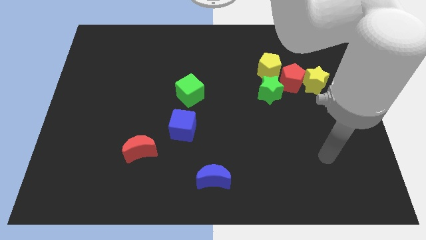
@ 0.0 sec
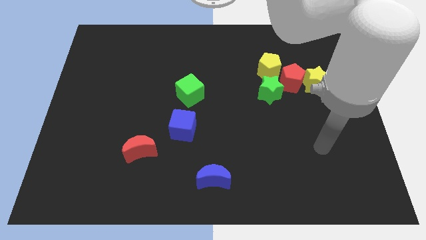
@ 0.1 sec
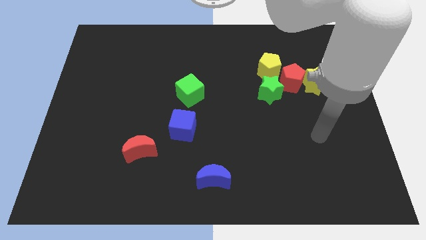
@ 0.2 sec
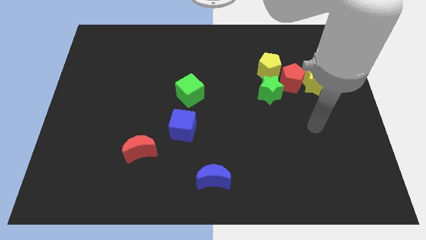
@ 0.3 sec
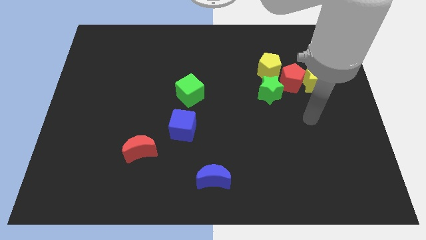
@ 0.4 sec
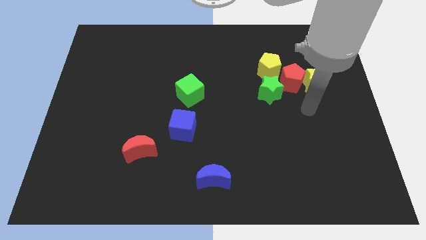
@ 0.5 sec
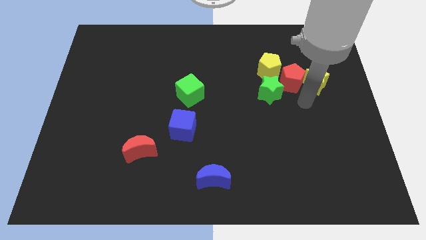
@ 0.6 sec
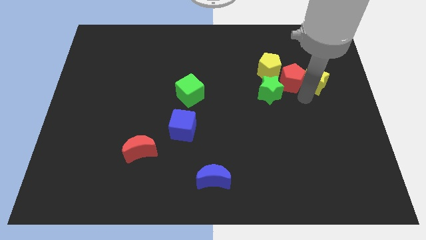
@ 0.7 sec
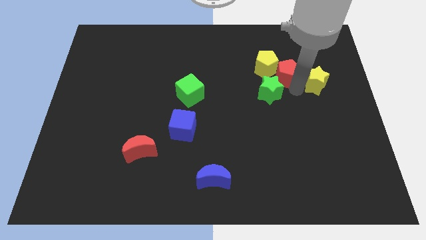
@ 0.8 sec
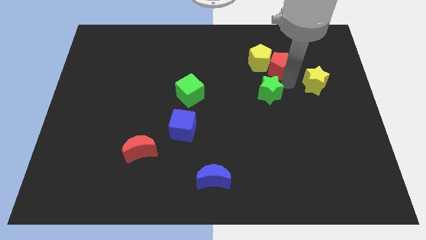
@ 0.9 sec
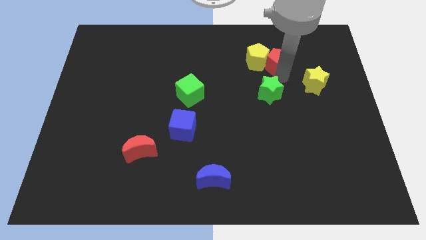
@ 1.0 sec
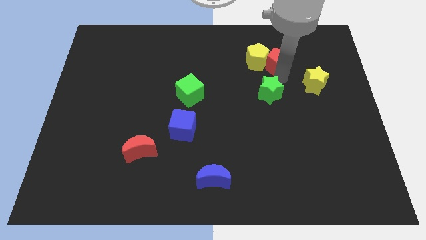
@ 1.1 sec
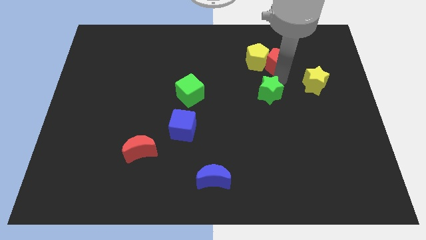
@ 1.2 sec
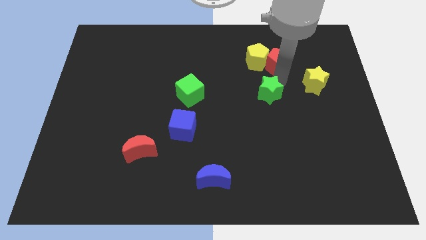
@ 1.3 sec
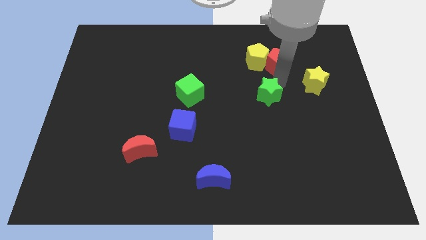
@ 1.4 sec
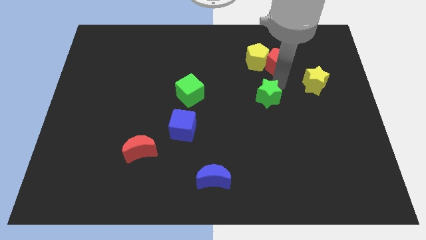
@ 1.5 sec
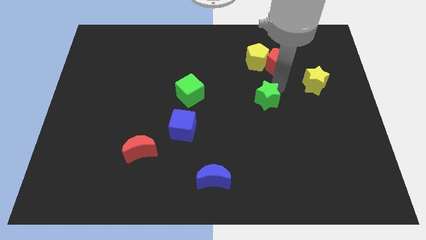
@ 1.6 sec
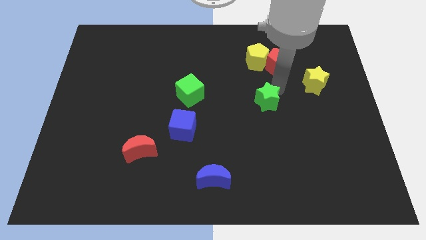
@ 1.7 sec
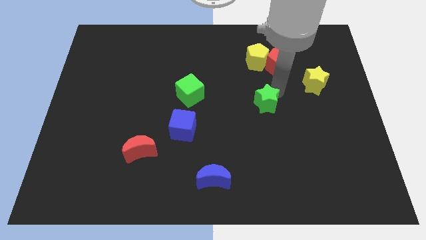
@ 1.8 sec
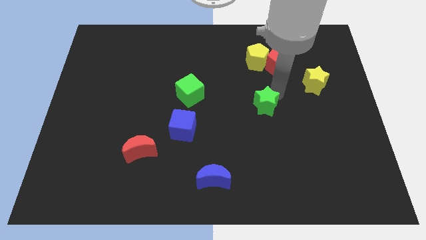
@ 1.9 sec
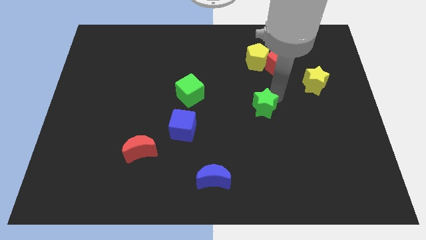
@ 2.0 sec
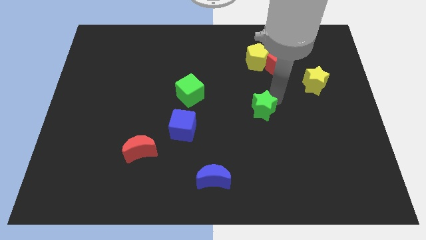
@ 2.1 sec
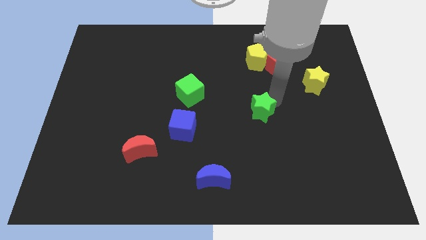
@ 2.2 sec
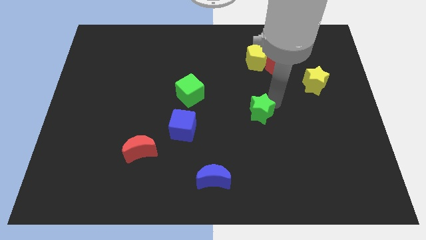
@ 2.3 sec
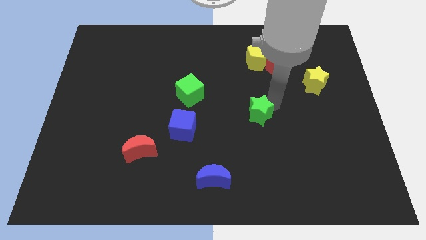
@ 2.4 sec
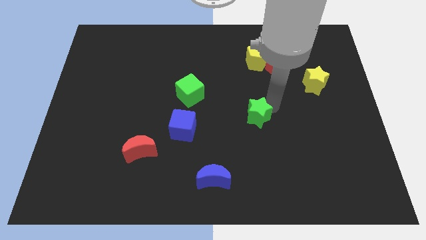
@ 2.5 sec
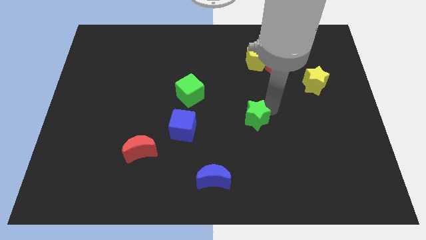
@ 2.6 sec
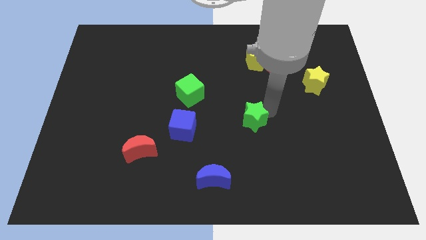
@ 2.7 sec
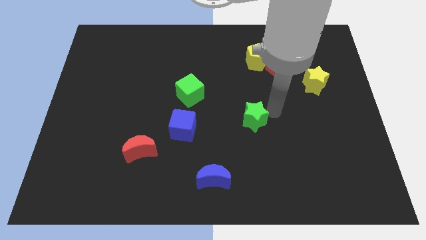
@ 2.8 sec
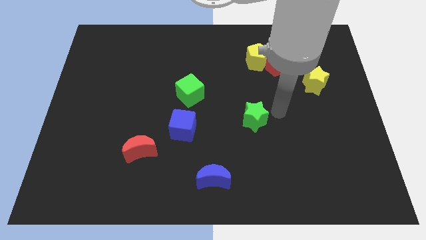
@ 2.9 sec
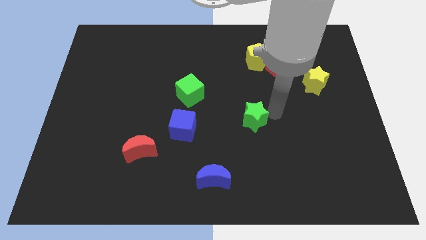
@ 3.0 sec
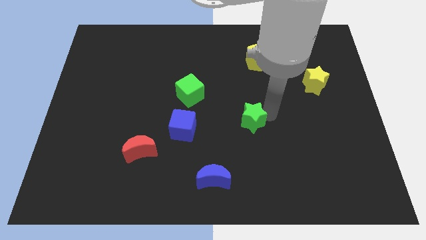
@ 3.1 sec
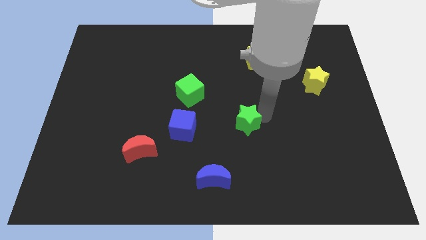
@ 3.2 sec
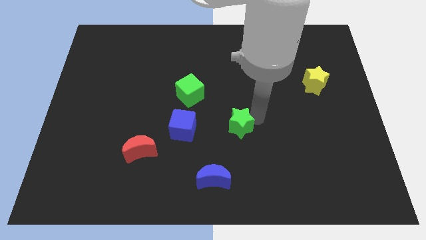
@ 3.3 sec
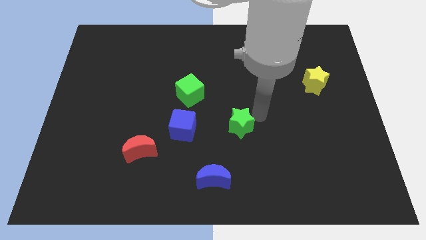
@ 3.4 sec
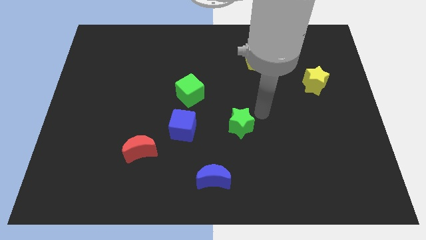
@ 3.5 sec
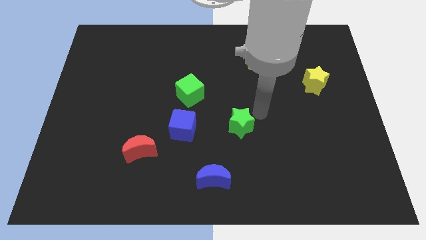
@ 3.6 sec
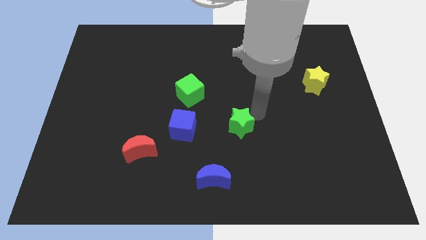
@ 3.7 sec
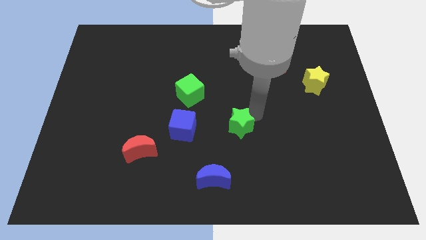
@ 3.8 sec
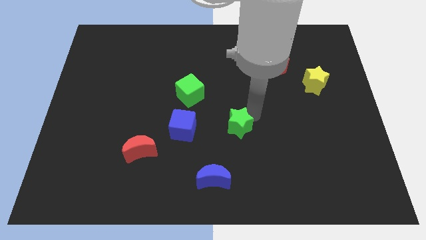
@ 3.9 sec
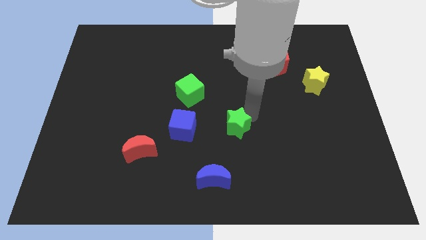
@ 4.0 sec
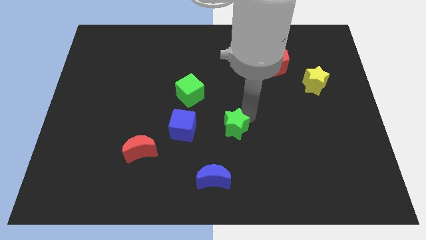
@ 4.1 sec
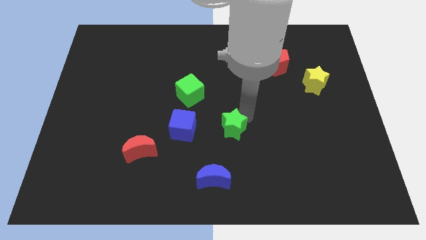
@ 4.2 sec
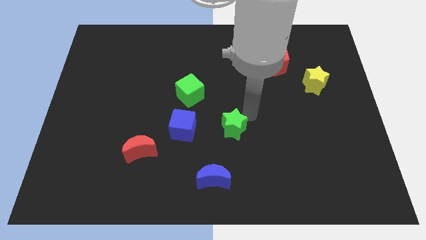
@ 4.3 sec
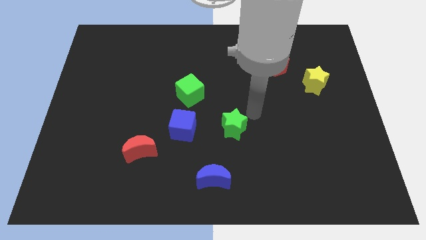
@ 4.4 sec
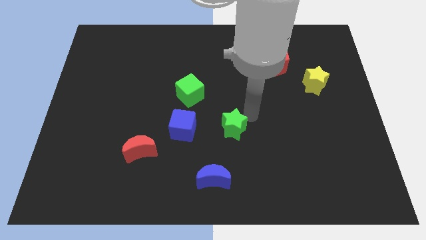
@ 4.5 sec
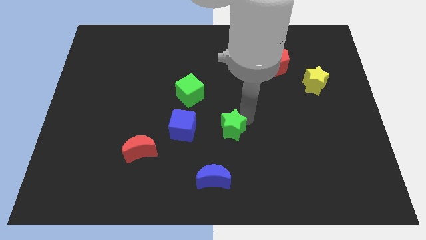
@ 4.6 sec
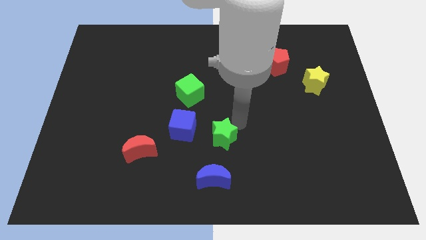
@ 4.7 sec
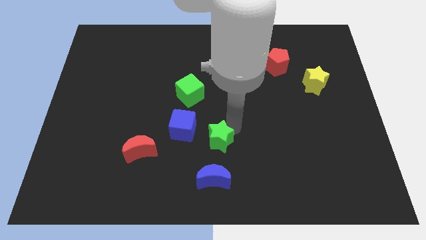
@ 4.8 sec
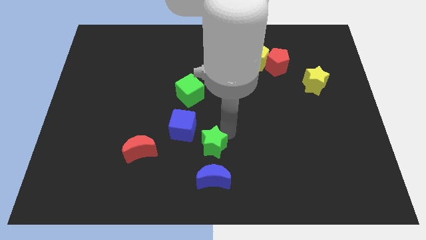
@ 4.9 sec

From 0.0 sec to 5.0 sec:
push the green star downwards and then to the left

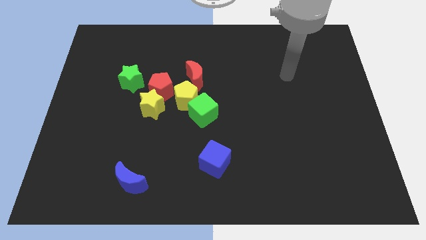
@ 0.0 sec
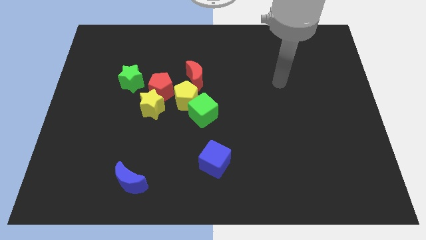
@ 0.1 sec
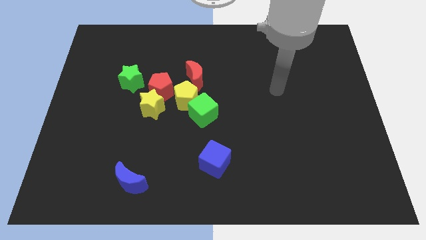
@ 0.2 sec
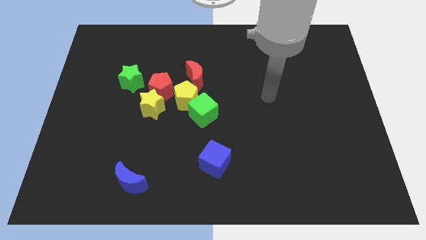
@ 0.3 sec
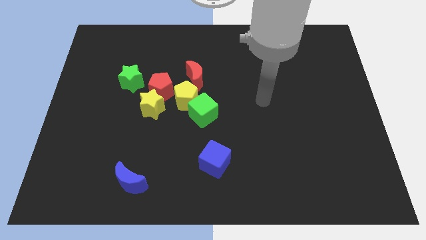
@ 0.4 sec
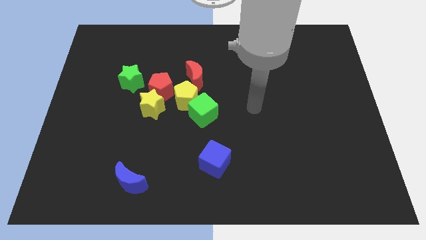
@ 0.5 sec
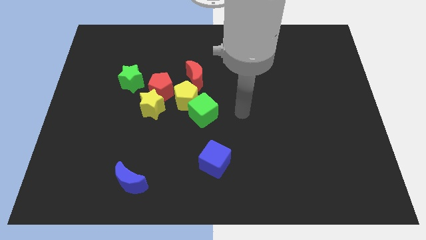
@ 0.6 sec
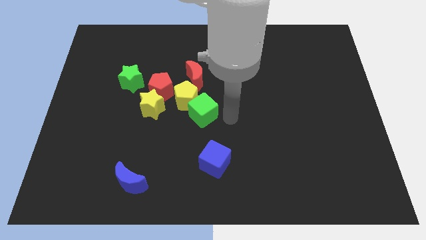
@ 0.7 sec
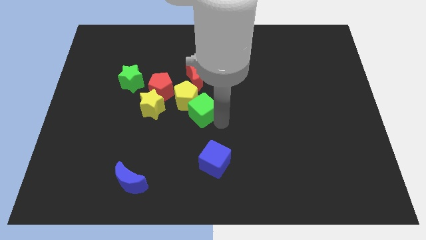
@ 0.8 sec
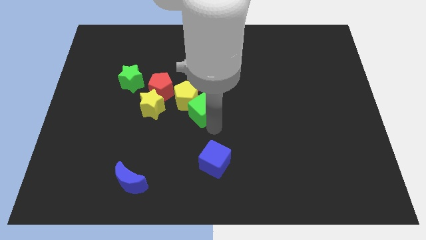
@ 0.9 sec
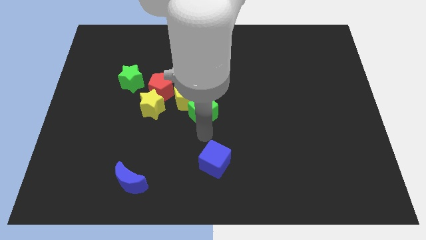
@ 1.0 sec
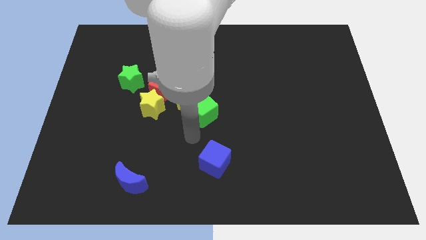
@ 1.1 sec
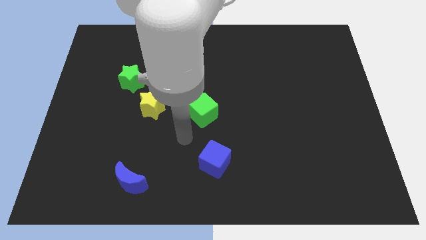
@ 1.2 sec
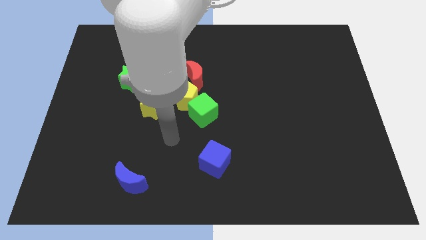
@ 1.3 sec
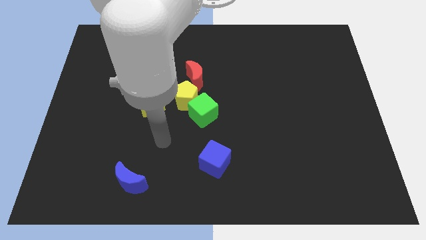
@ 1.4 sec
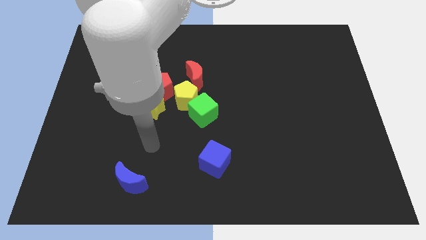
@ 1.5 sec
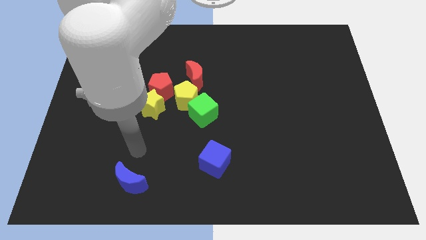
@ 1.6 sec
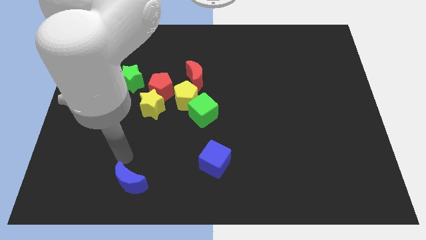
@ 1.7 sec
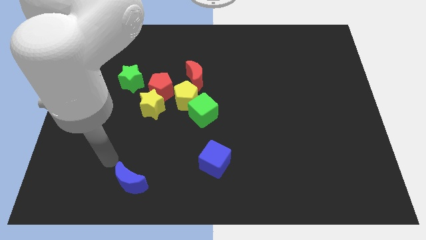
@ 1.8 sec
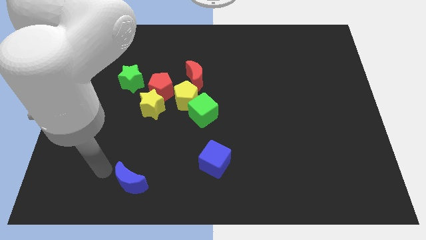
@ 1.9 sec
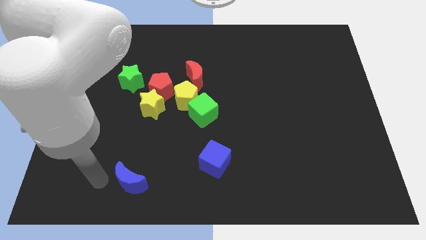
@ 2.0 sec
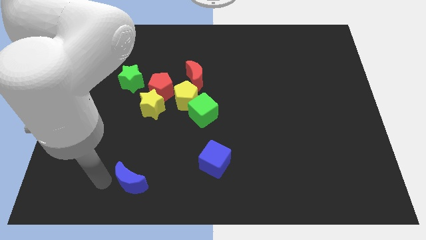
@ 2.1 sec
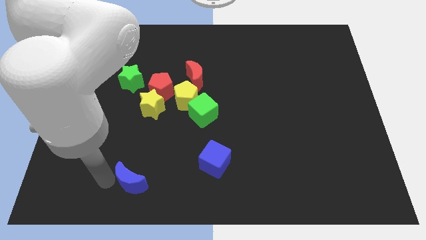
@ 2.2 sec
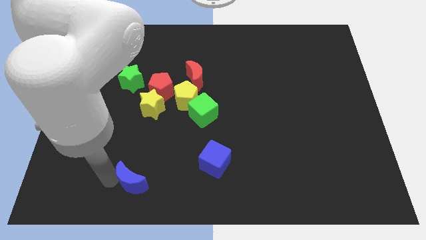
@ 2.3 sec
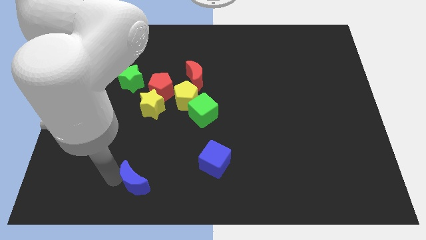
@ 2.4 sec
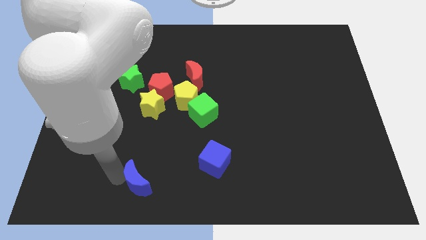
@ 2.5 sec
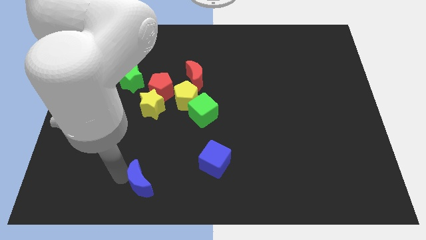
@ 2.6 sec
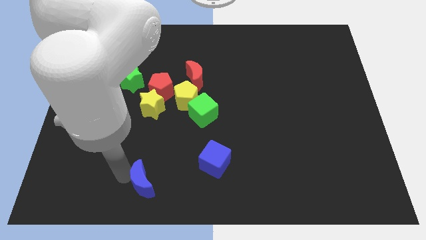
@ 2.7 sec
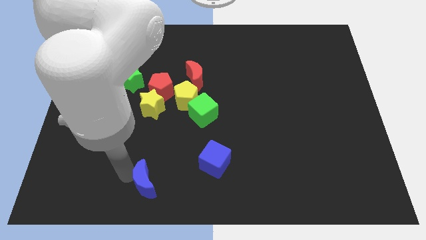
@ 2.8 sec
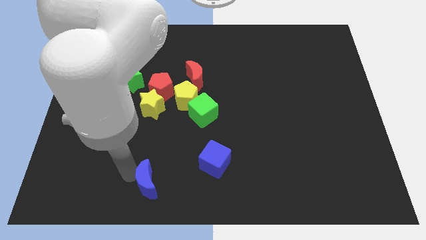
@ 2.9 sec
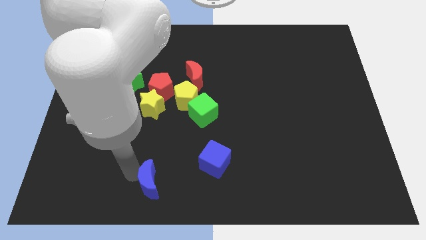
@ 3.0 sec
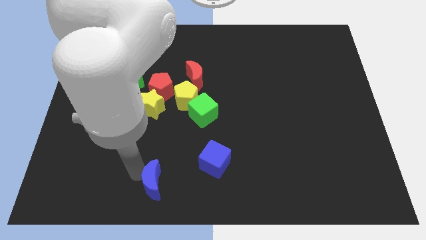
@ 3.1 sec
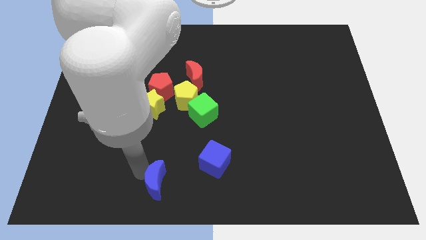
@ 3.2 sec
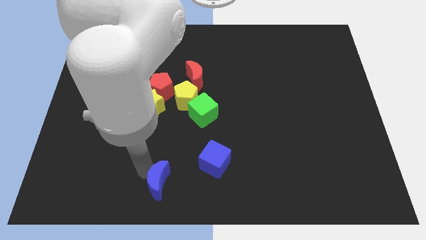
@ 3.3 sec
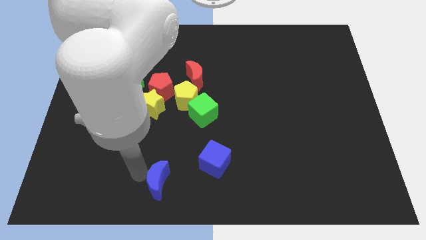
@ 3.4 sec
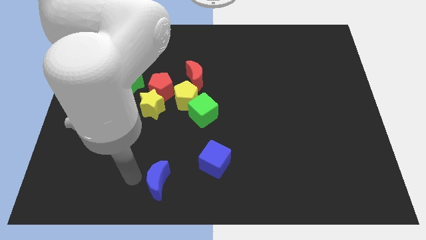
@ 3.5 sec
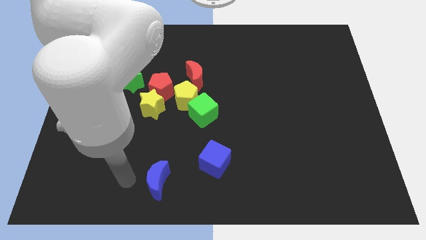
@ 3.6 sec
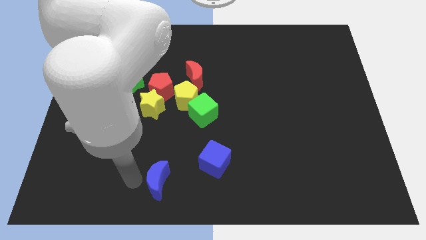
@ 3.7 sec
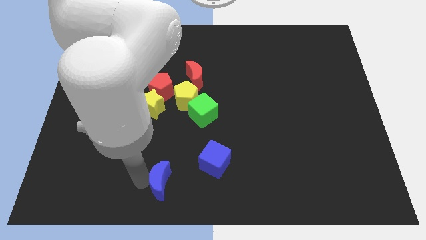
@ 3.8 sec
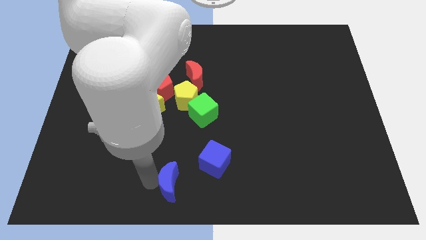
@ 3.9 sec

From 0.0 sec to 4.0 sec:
move the blue moon right a little
